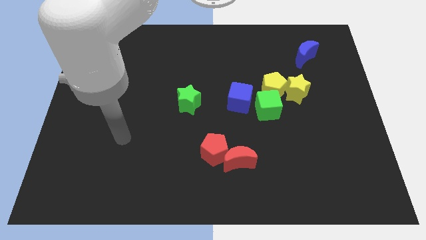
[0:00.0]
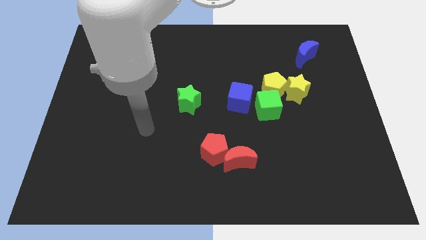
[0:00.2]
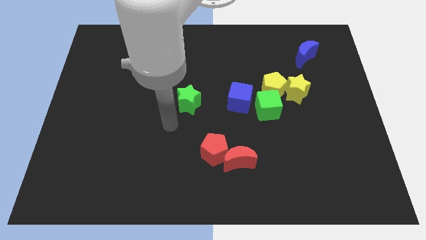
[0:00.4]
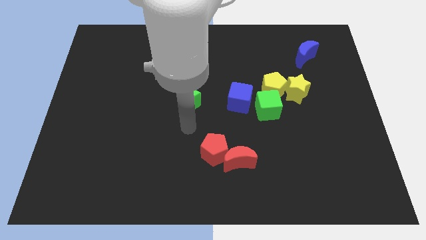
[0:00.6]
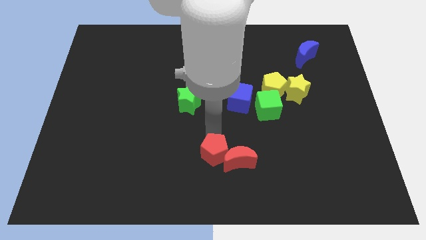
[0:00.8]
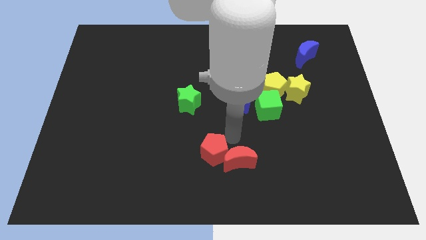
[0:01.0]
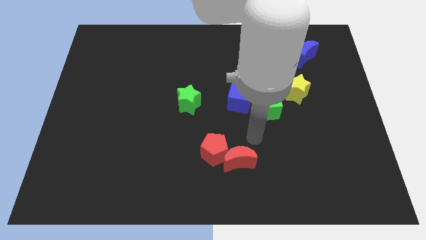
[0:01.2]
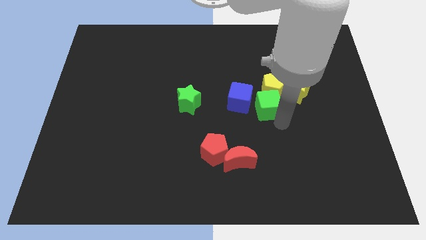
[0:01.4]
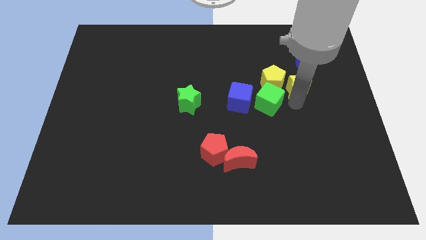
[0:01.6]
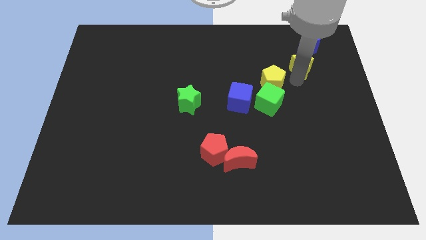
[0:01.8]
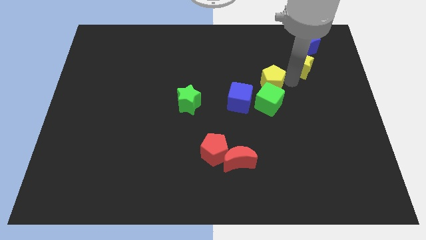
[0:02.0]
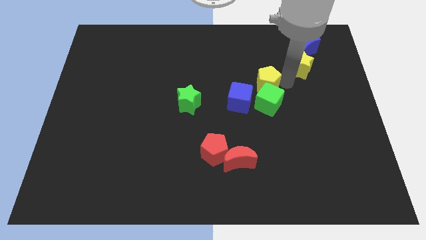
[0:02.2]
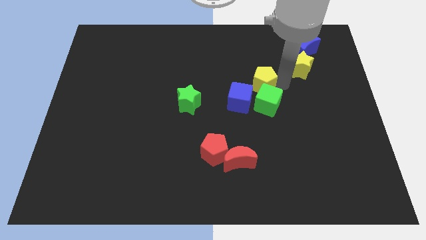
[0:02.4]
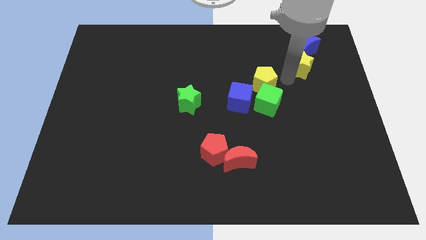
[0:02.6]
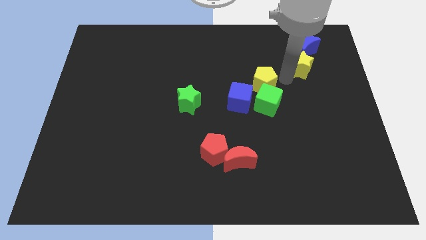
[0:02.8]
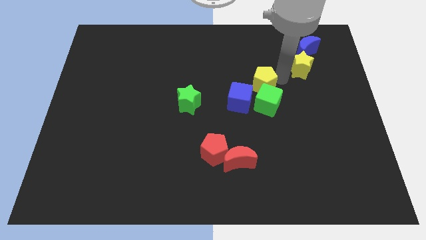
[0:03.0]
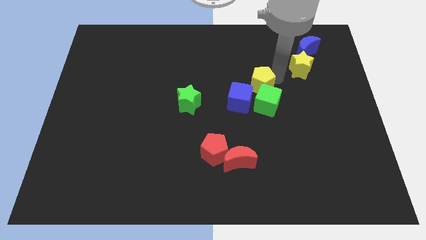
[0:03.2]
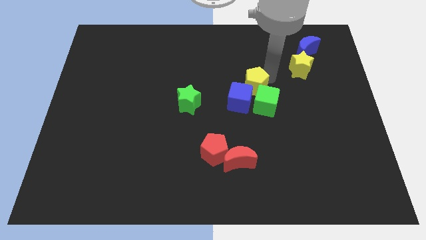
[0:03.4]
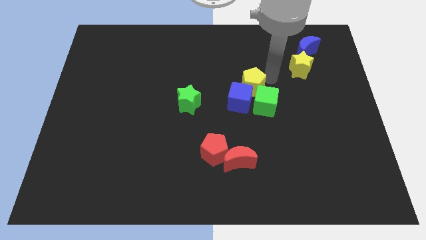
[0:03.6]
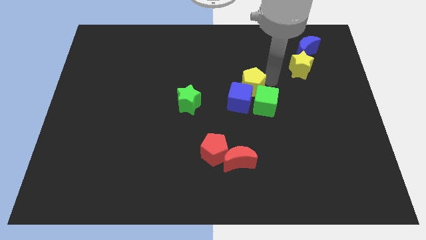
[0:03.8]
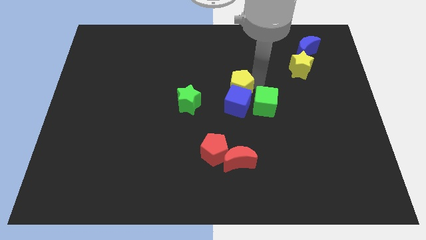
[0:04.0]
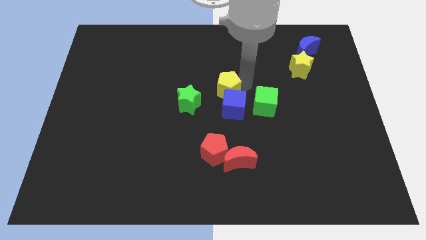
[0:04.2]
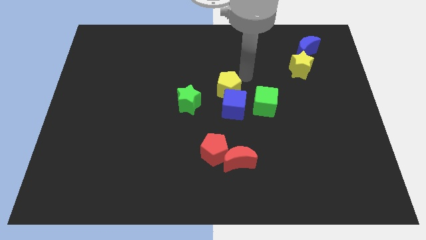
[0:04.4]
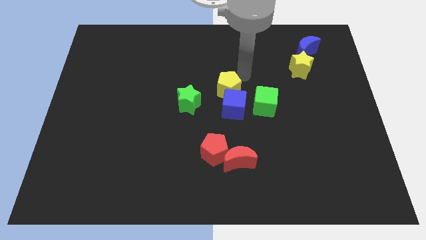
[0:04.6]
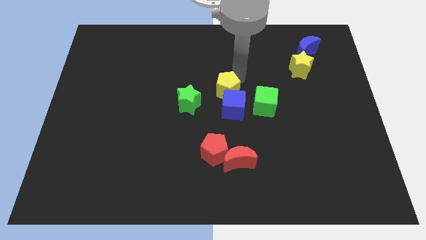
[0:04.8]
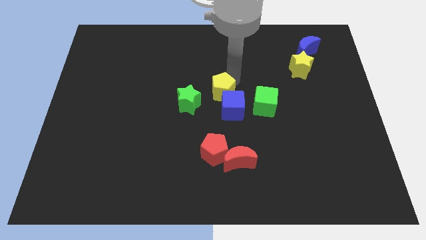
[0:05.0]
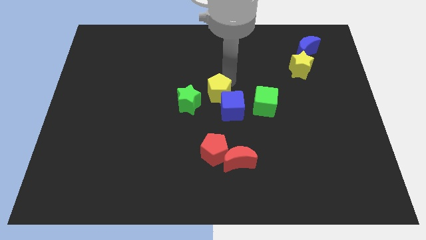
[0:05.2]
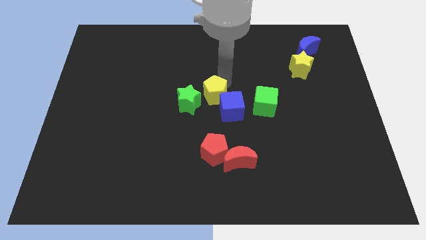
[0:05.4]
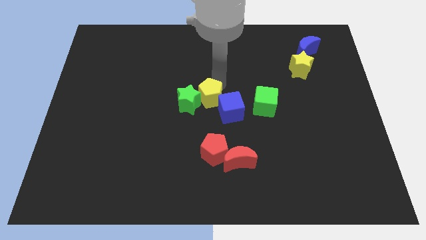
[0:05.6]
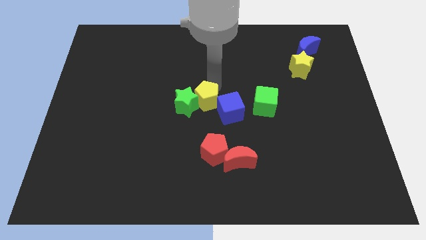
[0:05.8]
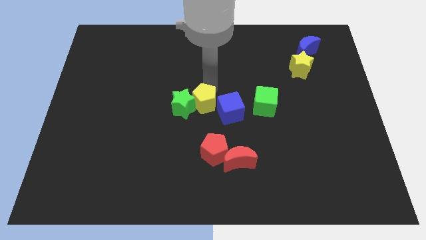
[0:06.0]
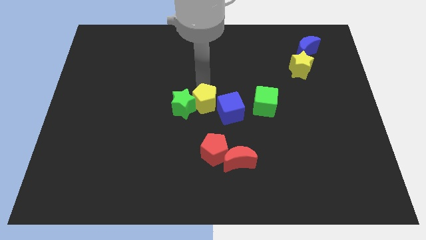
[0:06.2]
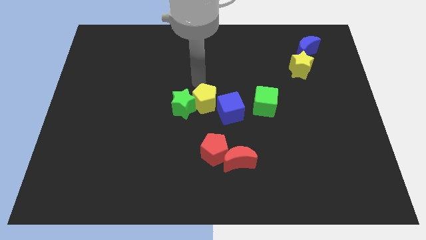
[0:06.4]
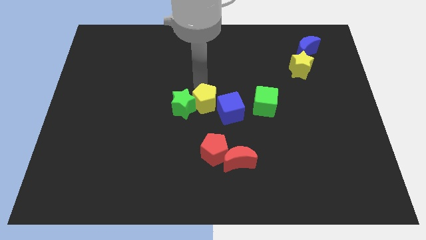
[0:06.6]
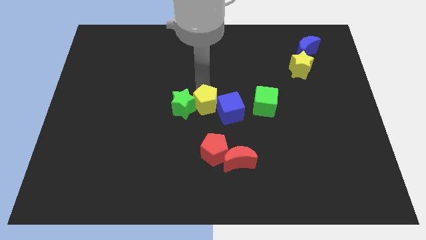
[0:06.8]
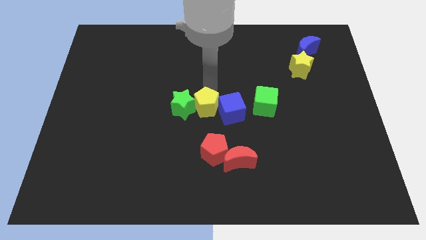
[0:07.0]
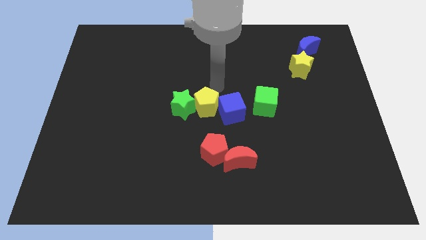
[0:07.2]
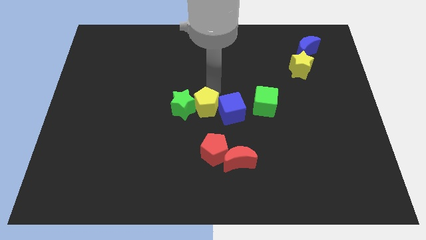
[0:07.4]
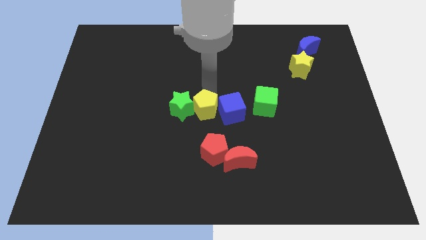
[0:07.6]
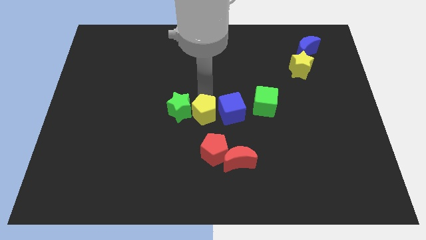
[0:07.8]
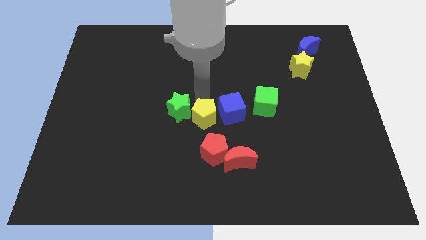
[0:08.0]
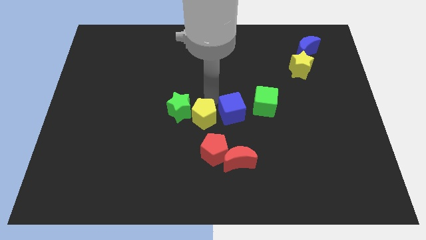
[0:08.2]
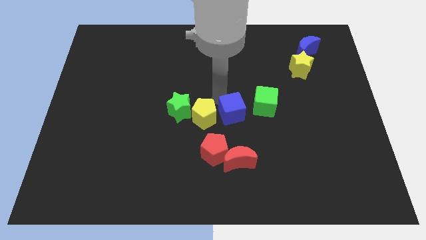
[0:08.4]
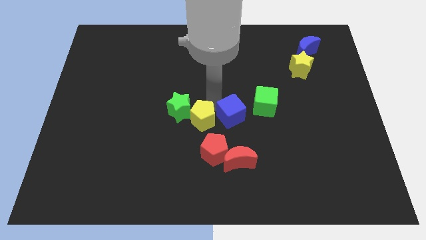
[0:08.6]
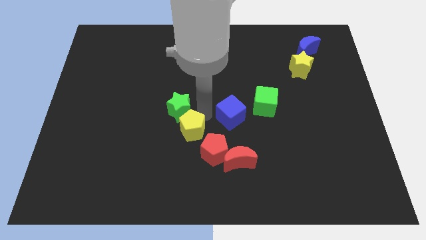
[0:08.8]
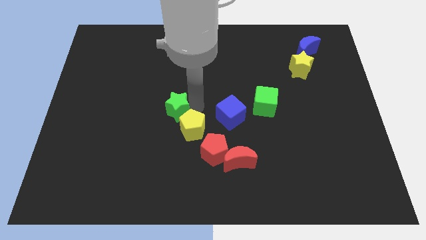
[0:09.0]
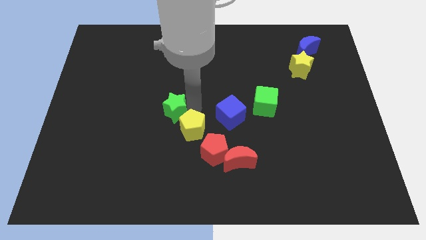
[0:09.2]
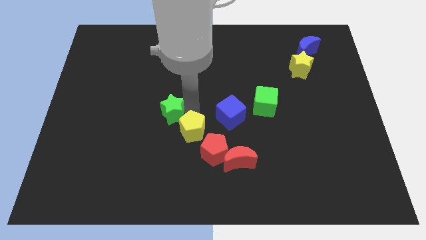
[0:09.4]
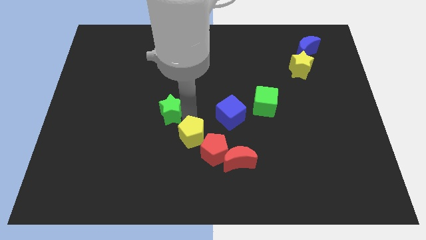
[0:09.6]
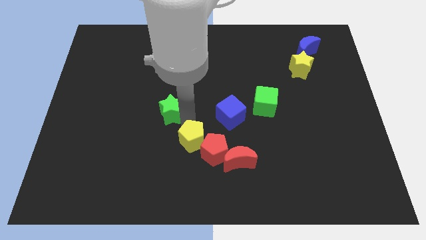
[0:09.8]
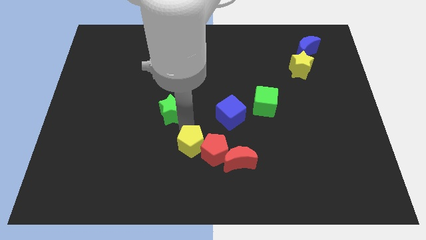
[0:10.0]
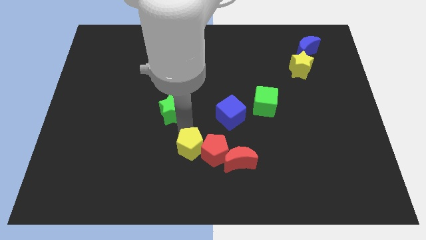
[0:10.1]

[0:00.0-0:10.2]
push the yellow pentagon diagonally down and to the left of the red pentagon

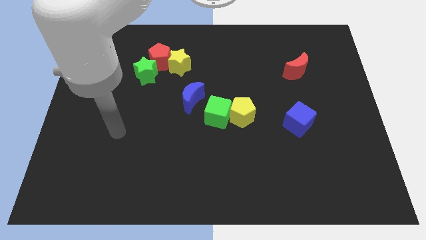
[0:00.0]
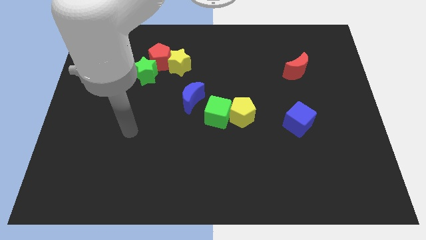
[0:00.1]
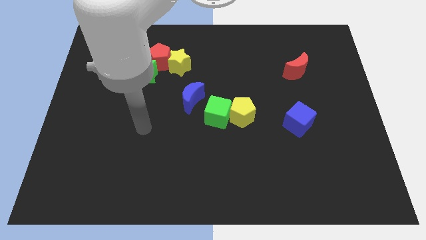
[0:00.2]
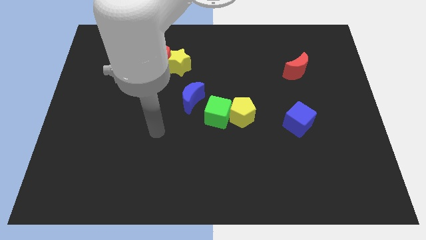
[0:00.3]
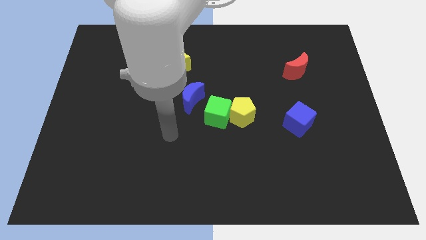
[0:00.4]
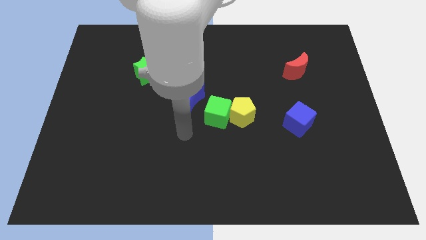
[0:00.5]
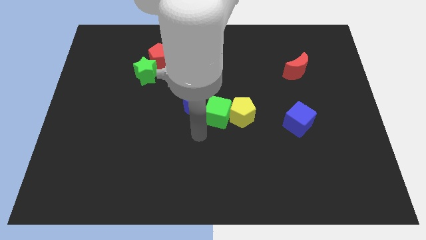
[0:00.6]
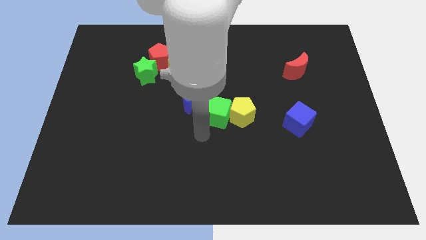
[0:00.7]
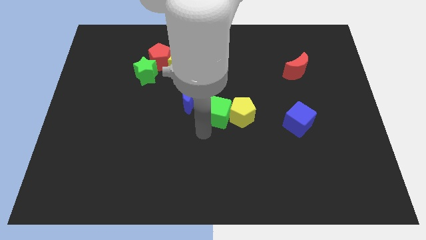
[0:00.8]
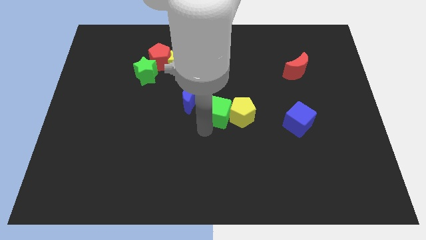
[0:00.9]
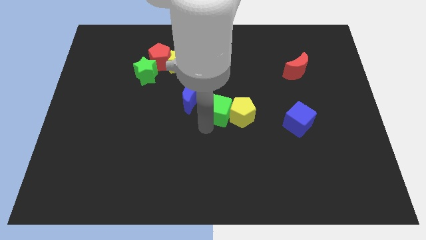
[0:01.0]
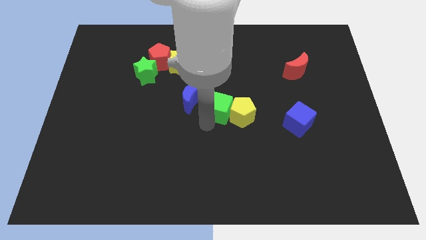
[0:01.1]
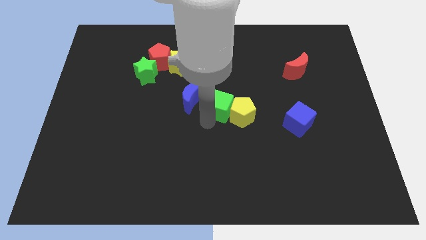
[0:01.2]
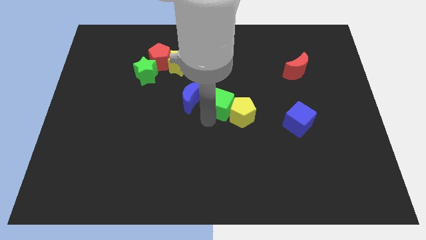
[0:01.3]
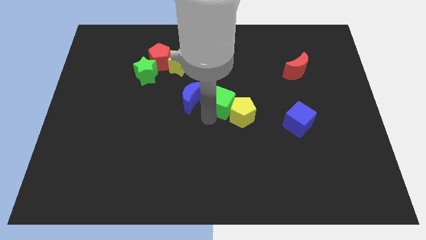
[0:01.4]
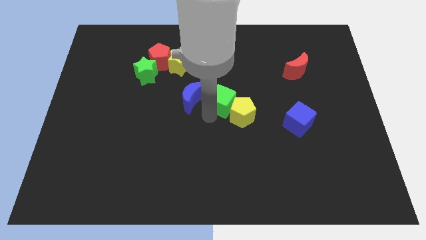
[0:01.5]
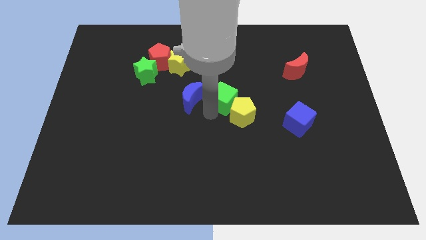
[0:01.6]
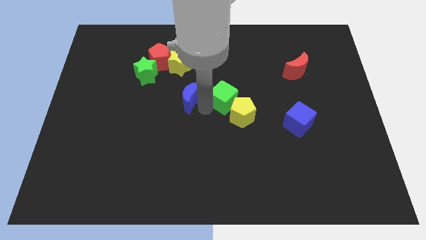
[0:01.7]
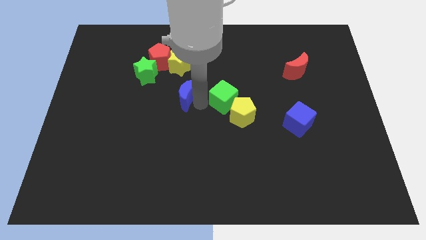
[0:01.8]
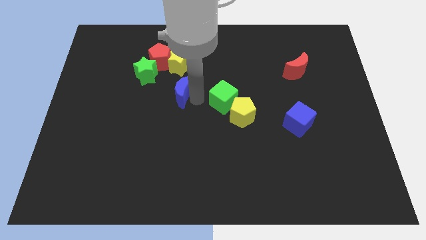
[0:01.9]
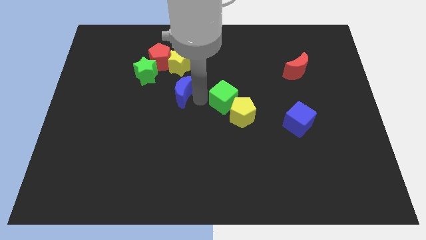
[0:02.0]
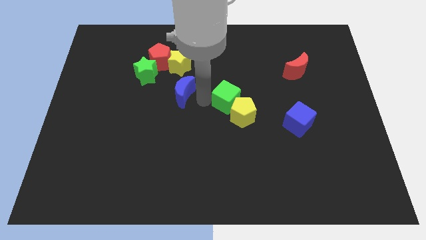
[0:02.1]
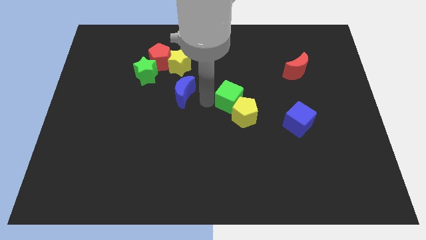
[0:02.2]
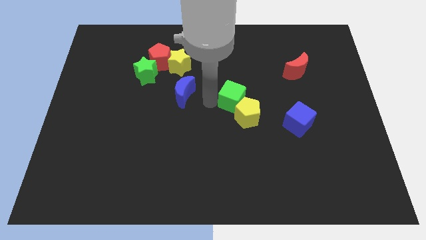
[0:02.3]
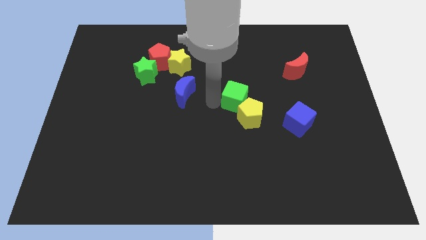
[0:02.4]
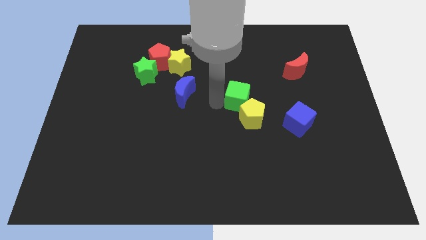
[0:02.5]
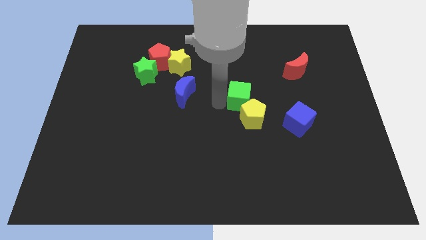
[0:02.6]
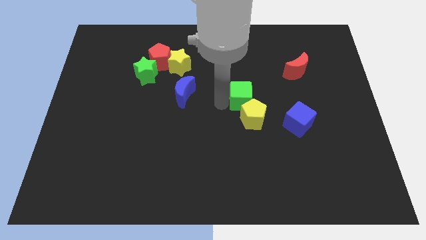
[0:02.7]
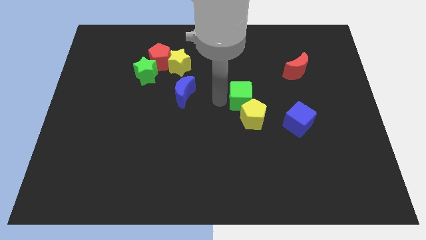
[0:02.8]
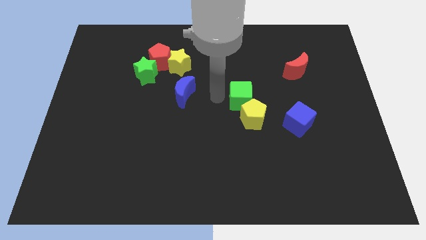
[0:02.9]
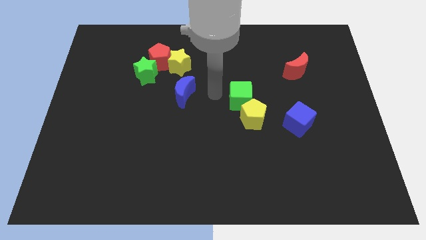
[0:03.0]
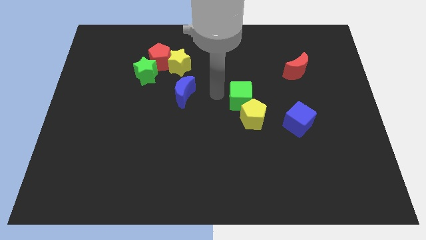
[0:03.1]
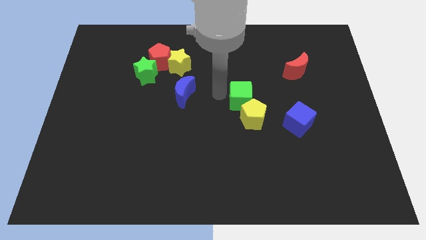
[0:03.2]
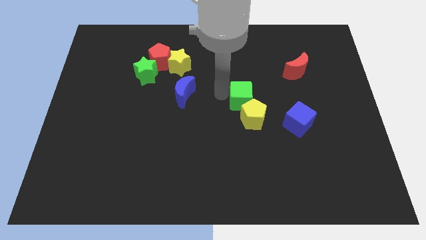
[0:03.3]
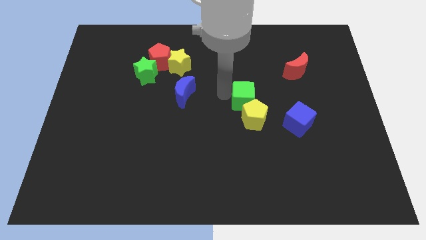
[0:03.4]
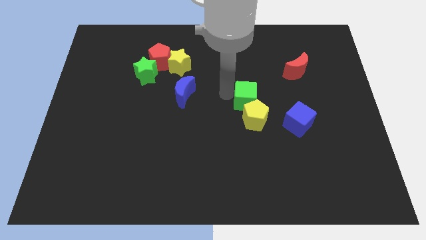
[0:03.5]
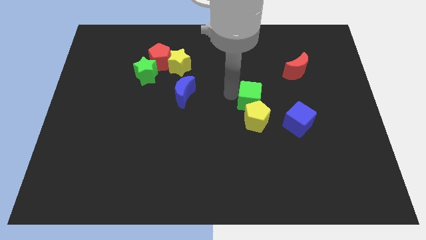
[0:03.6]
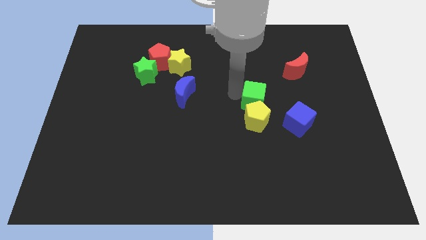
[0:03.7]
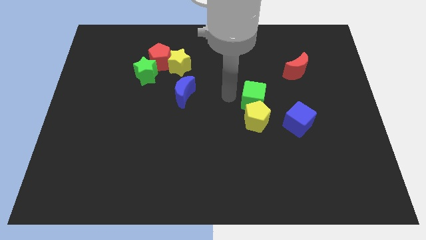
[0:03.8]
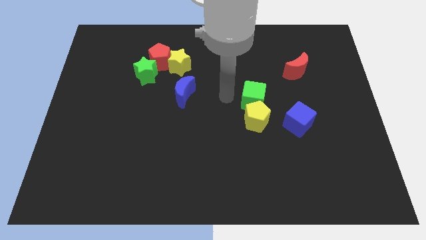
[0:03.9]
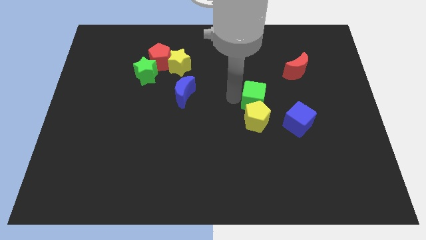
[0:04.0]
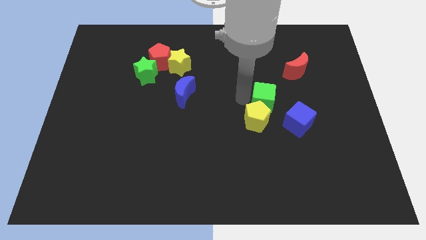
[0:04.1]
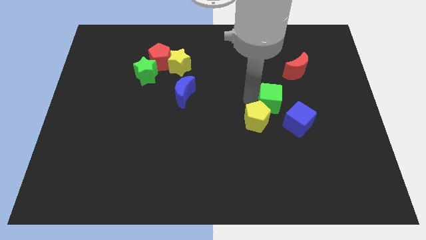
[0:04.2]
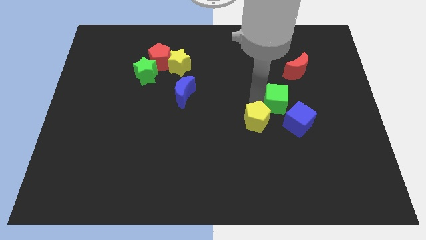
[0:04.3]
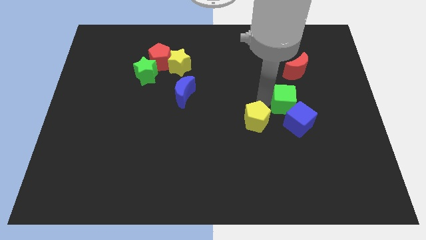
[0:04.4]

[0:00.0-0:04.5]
slide the green cube below the red moon
